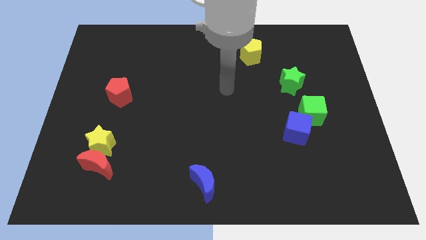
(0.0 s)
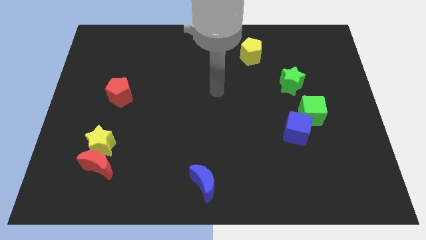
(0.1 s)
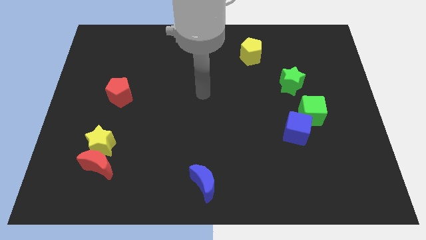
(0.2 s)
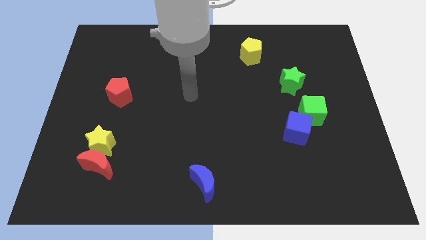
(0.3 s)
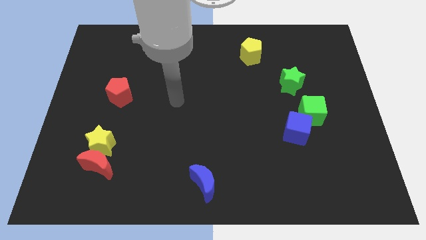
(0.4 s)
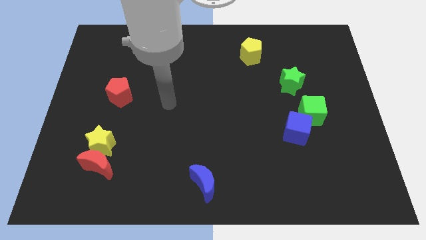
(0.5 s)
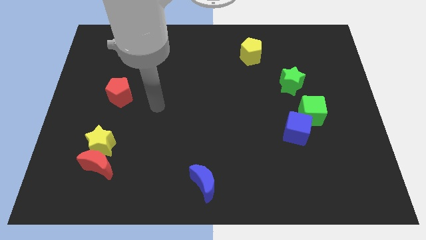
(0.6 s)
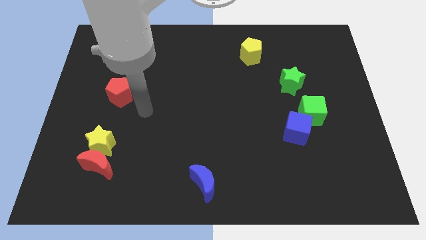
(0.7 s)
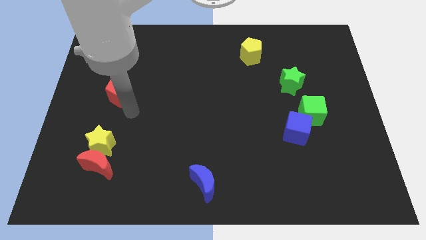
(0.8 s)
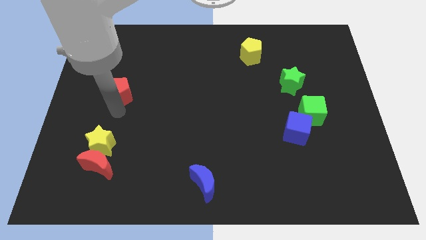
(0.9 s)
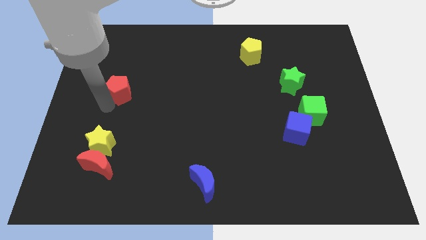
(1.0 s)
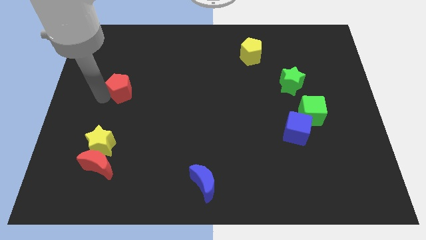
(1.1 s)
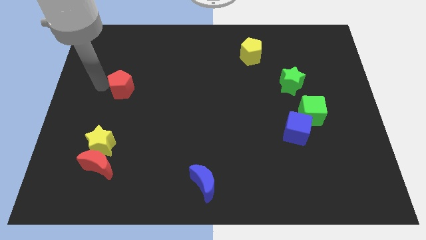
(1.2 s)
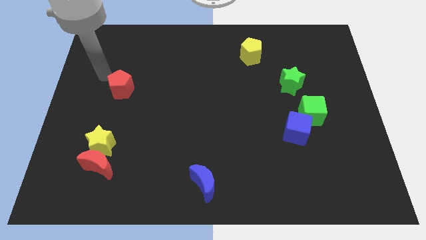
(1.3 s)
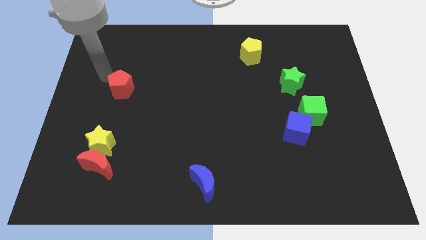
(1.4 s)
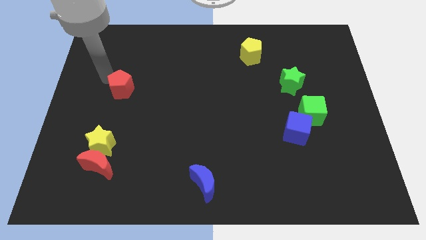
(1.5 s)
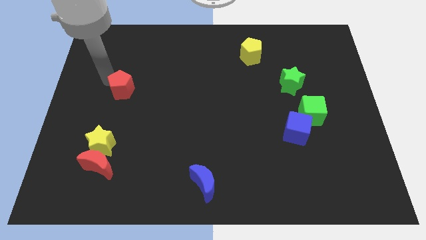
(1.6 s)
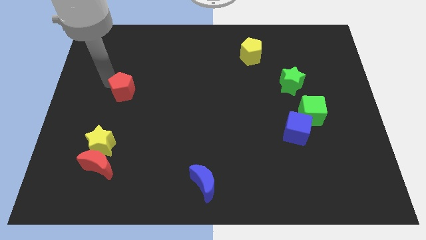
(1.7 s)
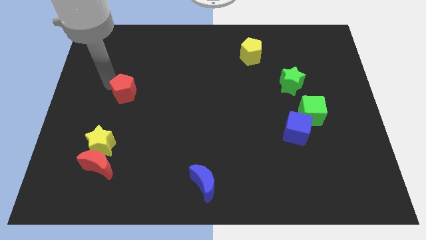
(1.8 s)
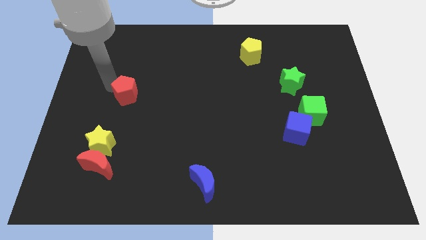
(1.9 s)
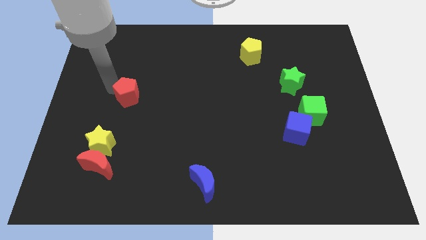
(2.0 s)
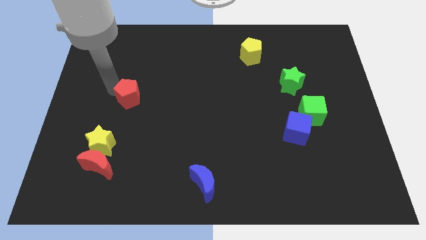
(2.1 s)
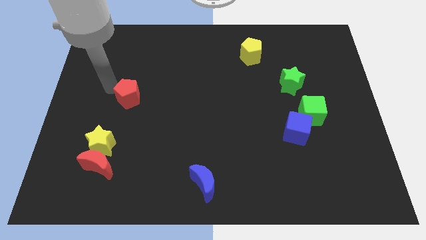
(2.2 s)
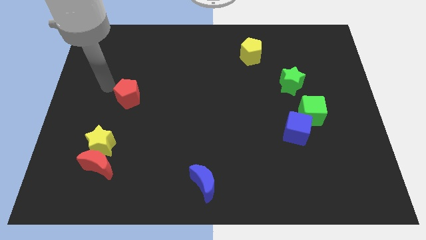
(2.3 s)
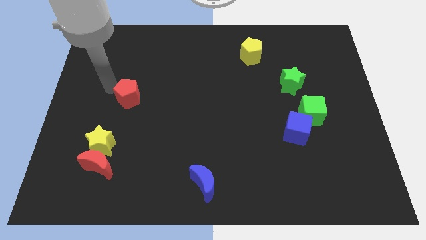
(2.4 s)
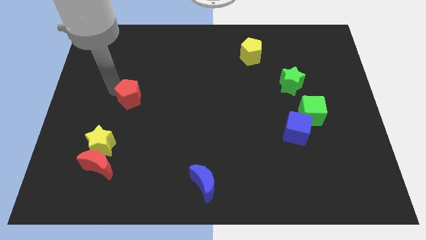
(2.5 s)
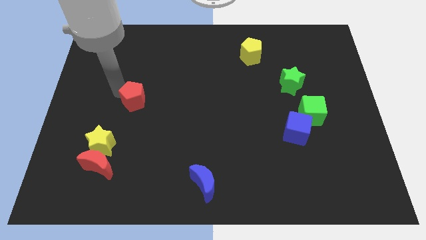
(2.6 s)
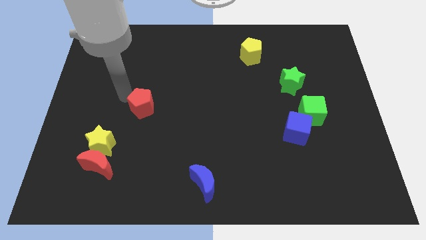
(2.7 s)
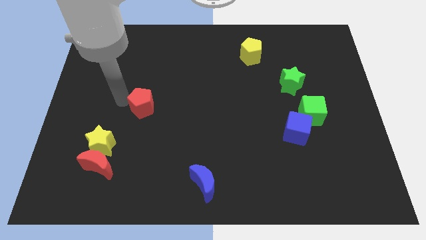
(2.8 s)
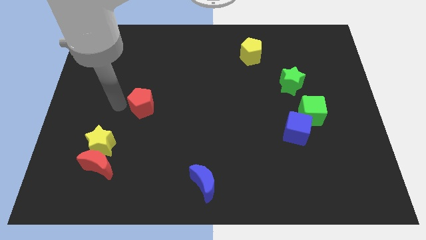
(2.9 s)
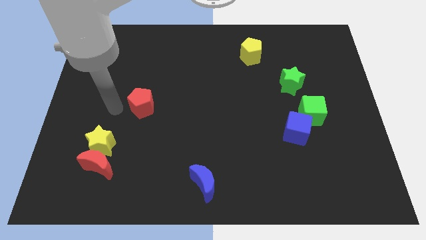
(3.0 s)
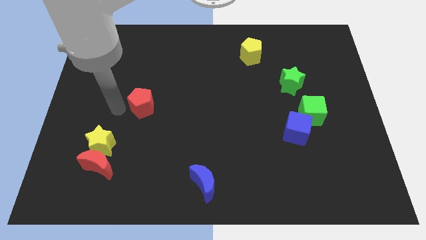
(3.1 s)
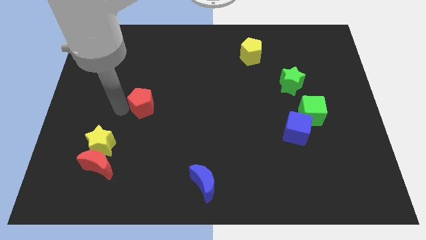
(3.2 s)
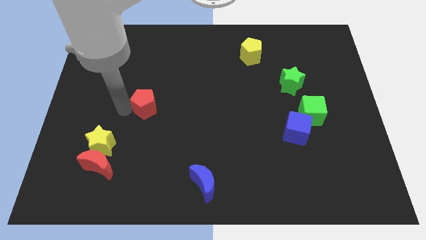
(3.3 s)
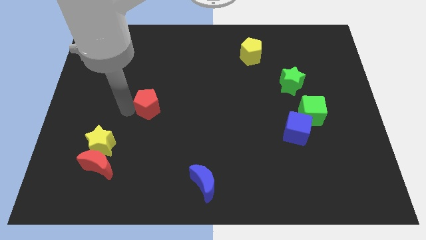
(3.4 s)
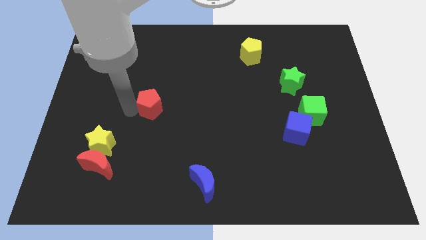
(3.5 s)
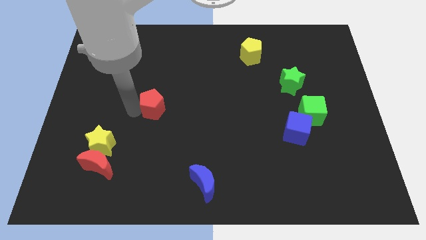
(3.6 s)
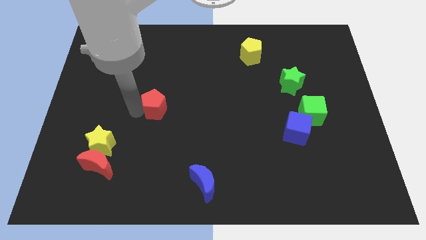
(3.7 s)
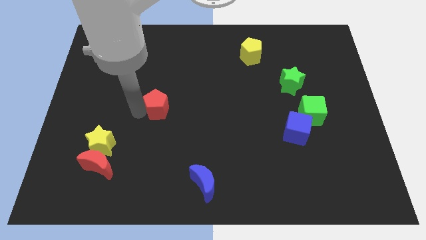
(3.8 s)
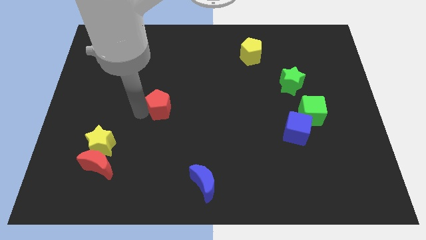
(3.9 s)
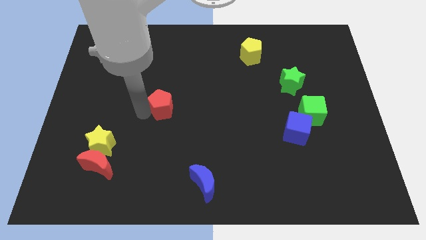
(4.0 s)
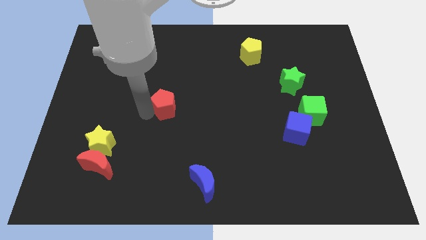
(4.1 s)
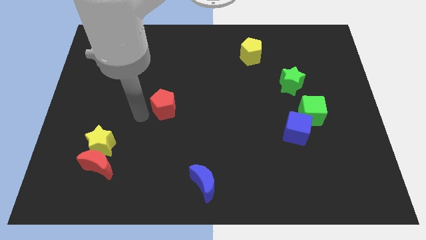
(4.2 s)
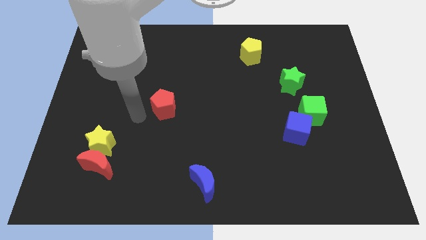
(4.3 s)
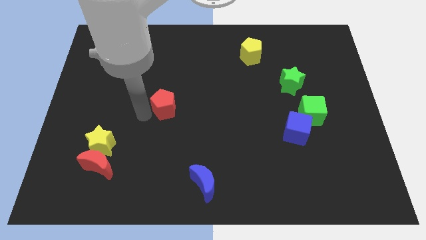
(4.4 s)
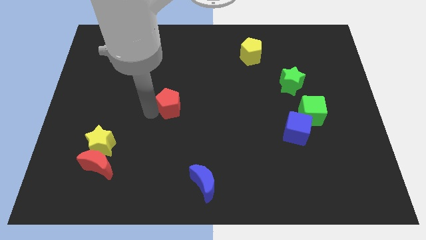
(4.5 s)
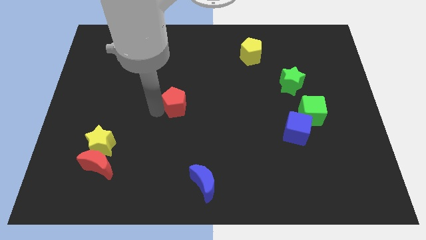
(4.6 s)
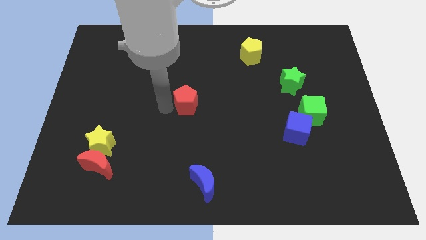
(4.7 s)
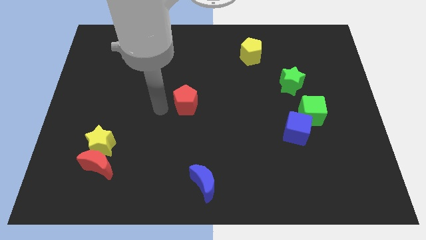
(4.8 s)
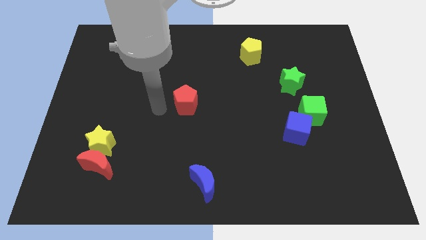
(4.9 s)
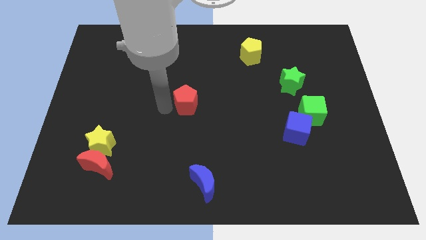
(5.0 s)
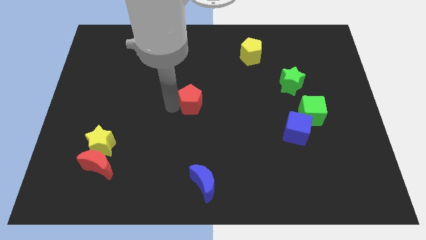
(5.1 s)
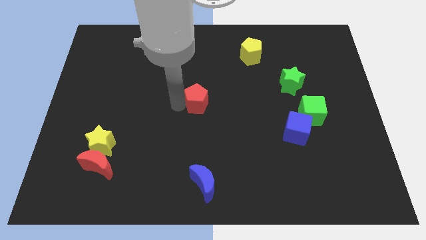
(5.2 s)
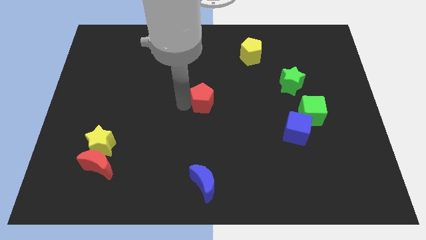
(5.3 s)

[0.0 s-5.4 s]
push the red pentagon right

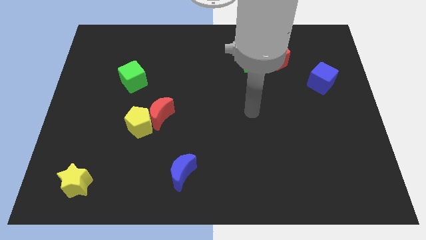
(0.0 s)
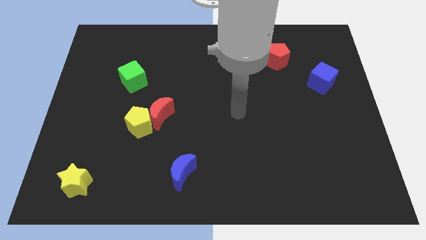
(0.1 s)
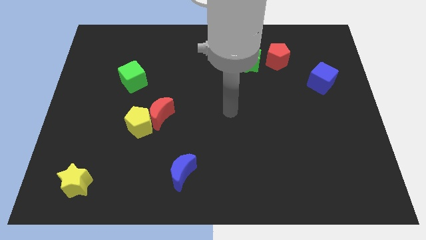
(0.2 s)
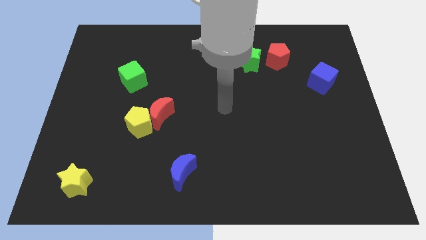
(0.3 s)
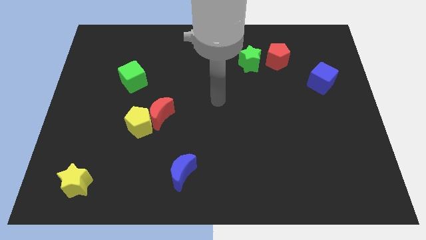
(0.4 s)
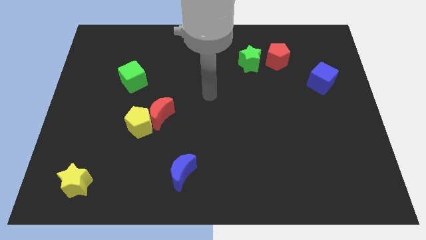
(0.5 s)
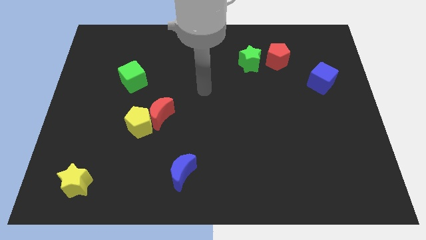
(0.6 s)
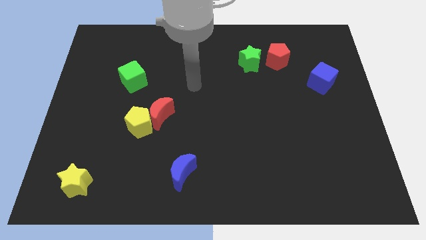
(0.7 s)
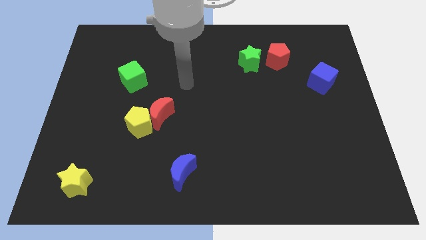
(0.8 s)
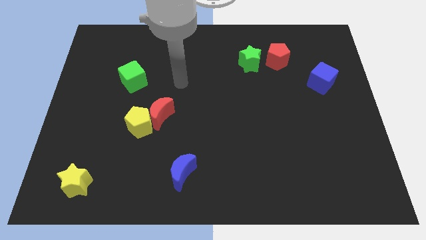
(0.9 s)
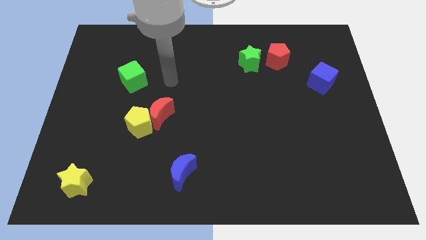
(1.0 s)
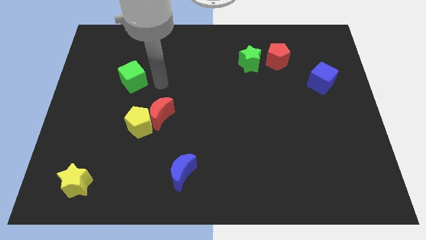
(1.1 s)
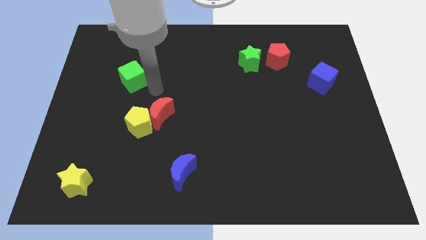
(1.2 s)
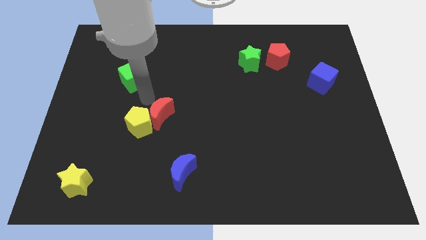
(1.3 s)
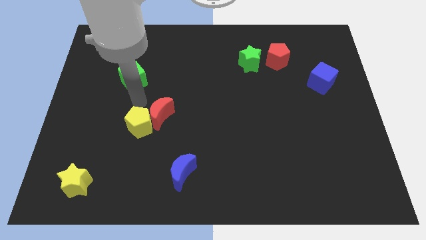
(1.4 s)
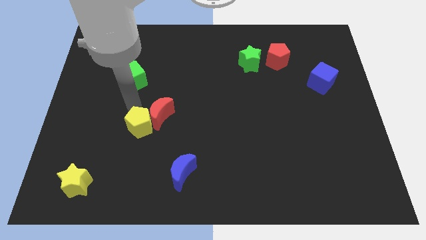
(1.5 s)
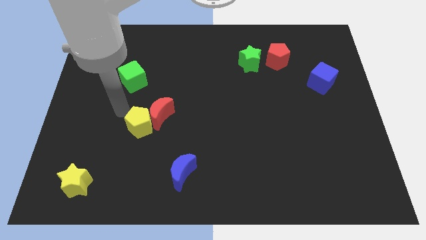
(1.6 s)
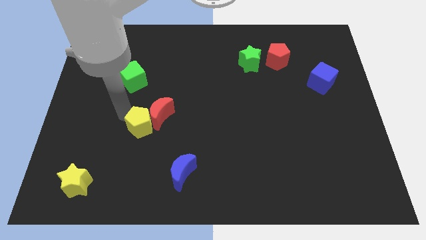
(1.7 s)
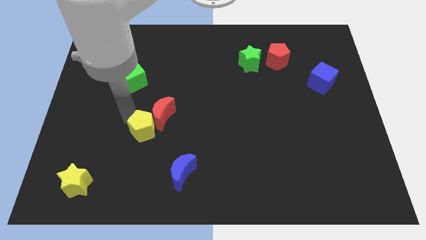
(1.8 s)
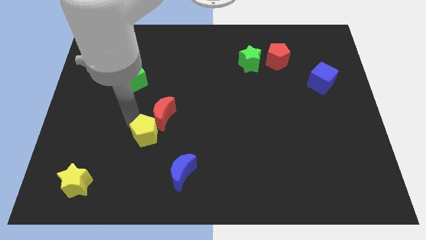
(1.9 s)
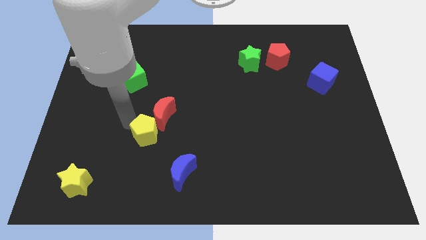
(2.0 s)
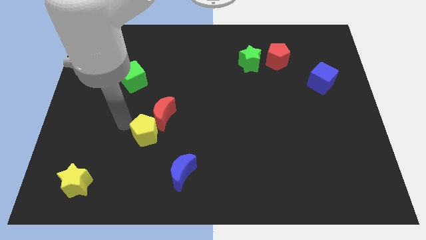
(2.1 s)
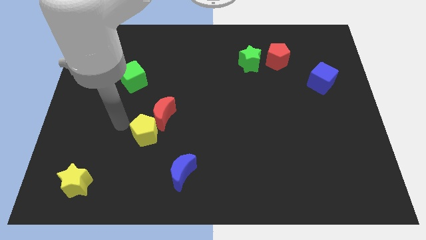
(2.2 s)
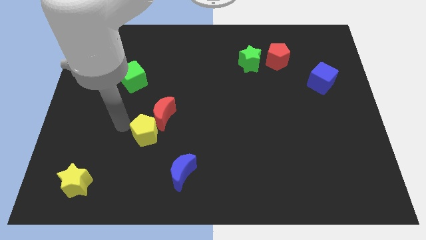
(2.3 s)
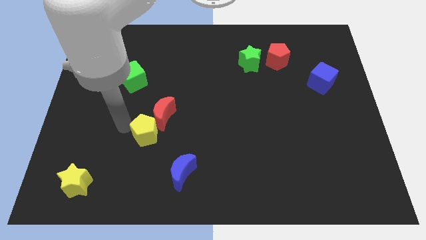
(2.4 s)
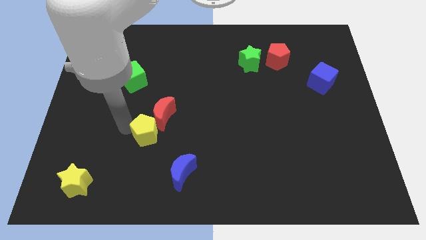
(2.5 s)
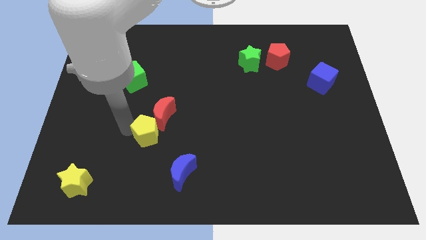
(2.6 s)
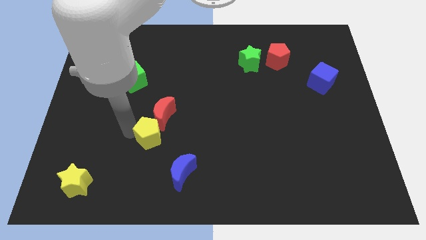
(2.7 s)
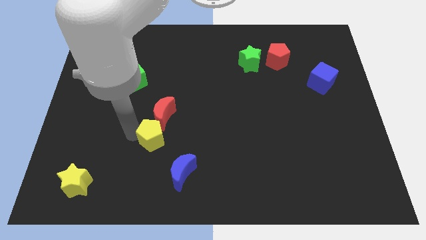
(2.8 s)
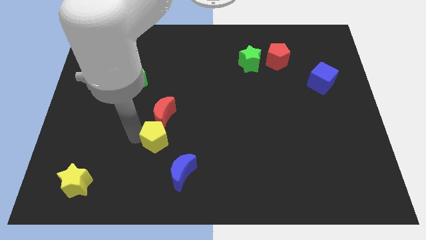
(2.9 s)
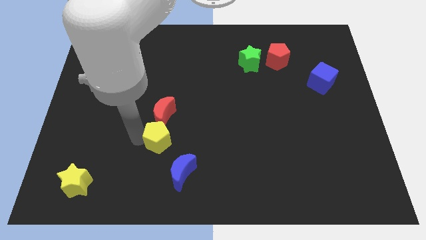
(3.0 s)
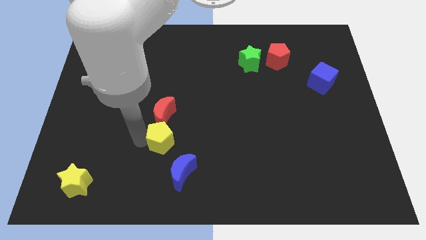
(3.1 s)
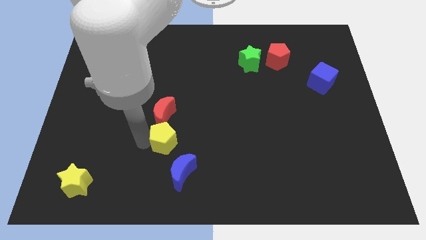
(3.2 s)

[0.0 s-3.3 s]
slightly push the yellow pentagon downwards and then right
